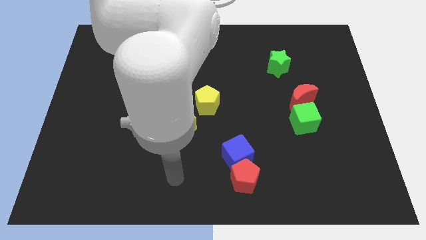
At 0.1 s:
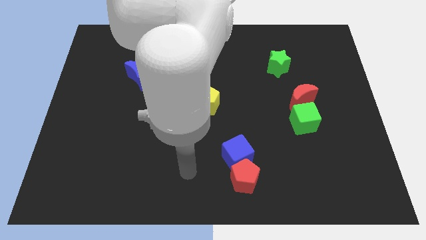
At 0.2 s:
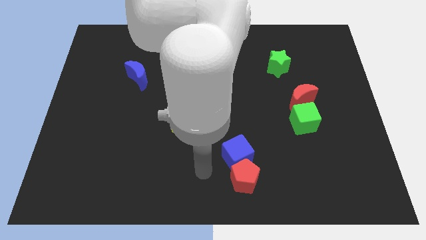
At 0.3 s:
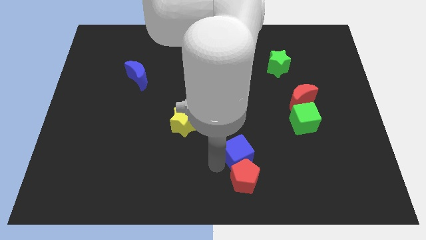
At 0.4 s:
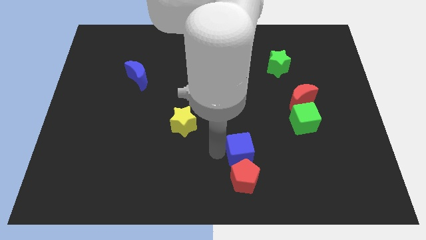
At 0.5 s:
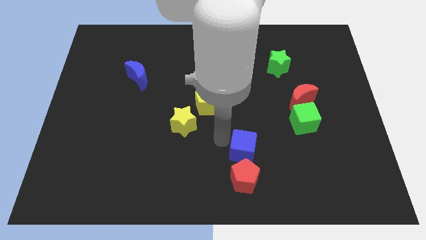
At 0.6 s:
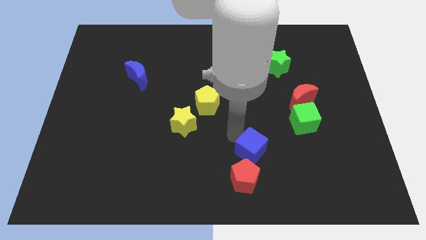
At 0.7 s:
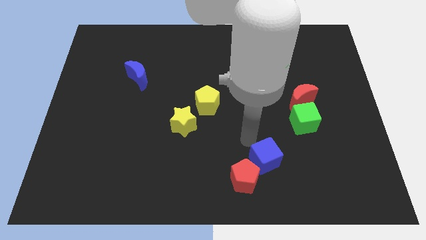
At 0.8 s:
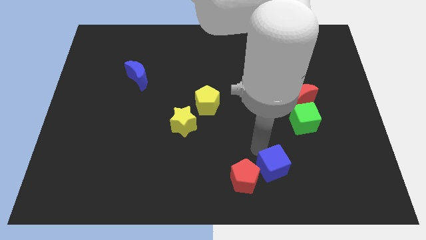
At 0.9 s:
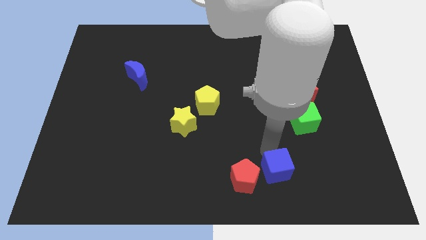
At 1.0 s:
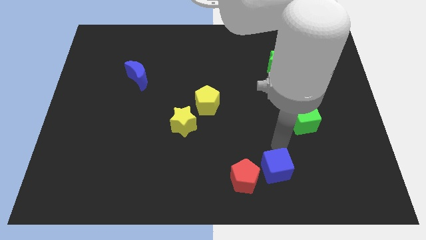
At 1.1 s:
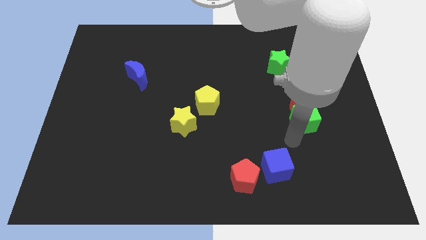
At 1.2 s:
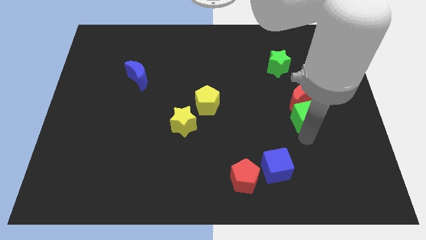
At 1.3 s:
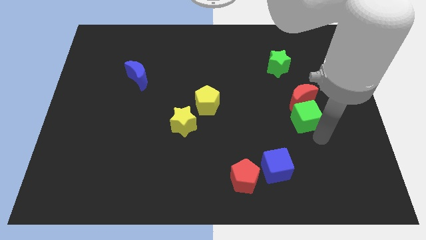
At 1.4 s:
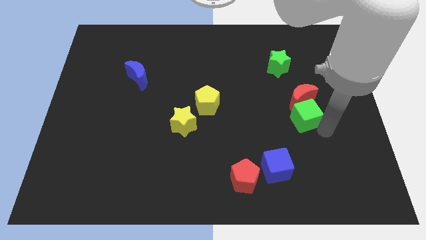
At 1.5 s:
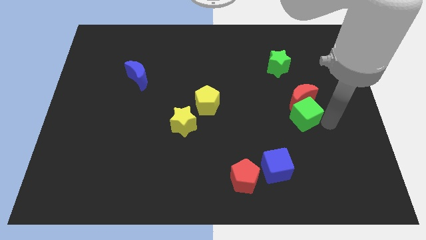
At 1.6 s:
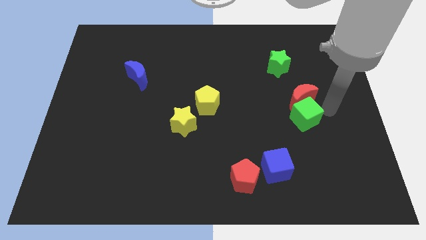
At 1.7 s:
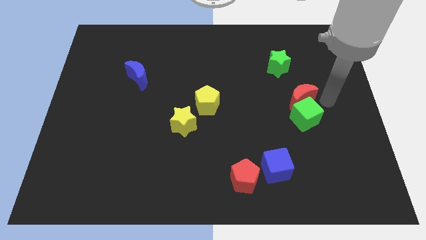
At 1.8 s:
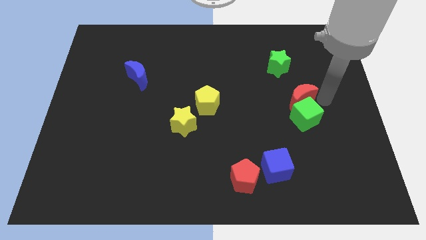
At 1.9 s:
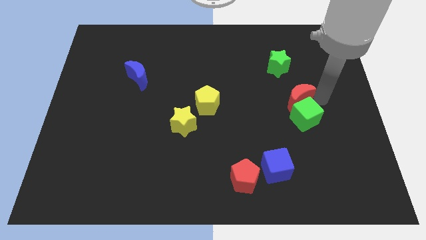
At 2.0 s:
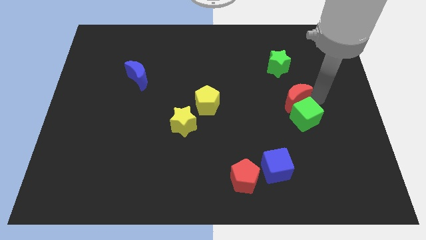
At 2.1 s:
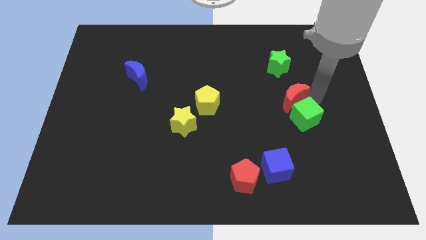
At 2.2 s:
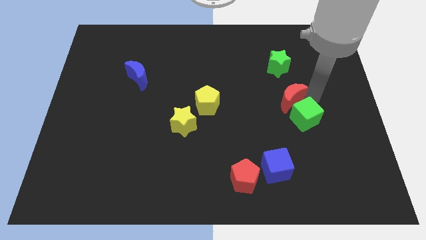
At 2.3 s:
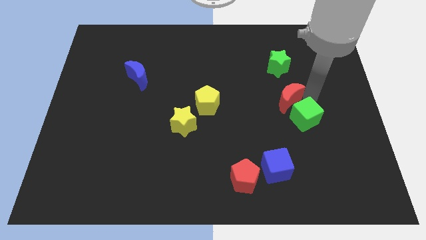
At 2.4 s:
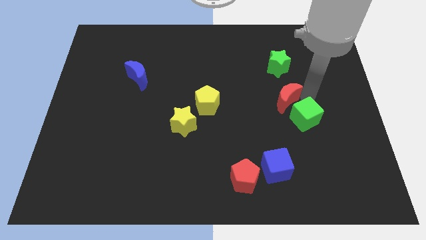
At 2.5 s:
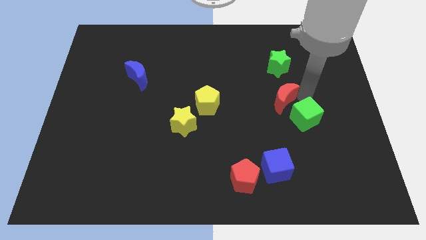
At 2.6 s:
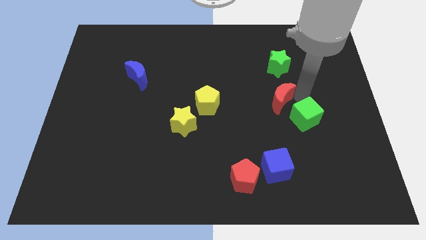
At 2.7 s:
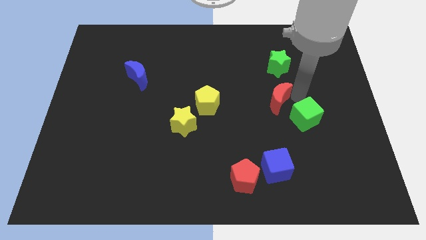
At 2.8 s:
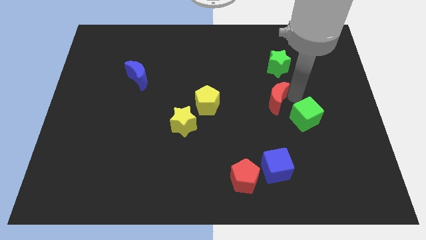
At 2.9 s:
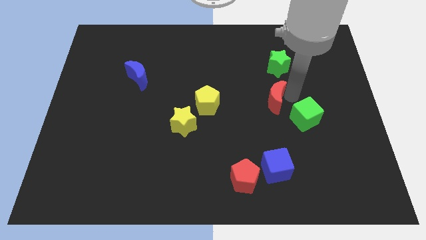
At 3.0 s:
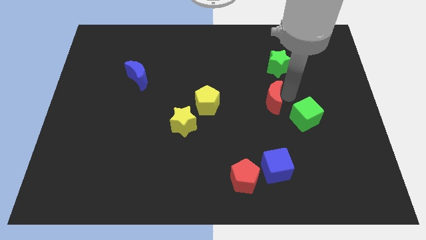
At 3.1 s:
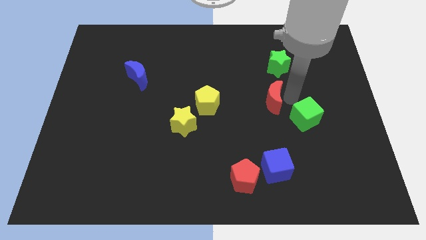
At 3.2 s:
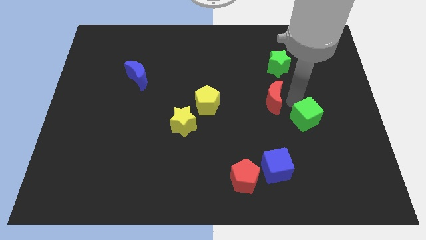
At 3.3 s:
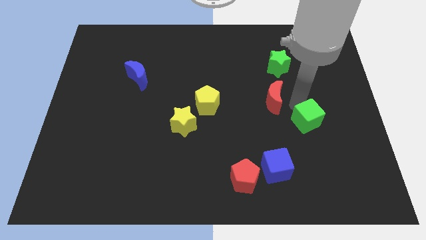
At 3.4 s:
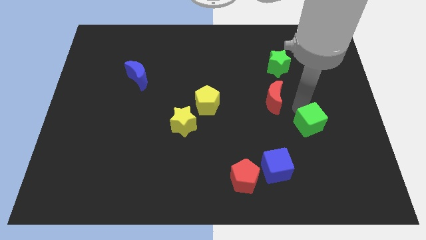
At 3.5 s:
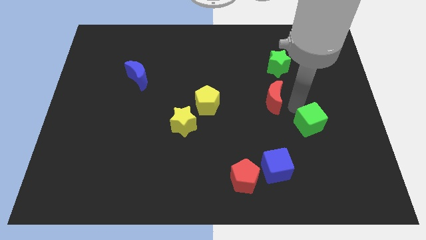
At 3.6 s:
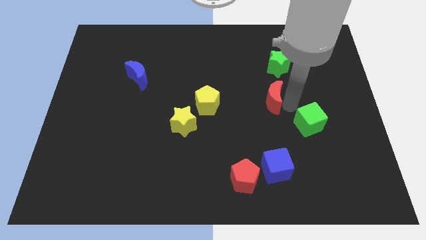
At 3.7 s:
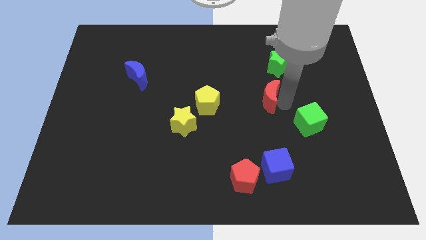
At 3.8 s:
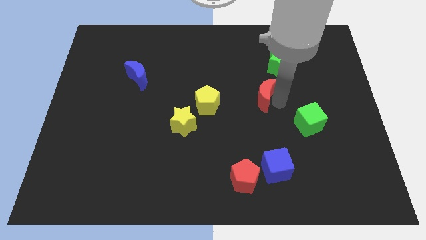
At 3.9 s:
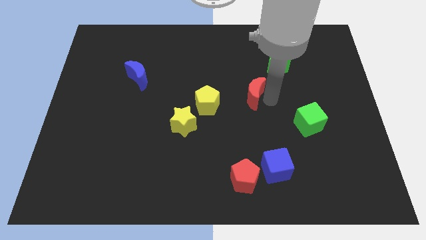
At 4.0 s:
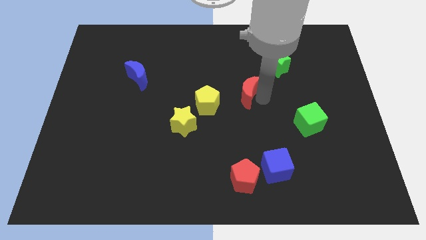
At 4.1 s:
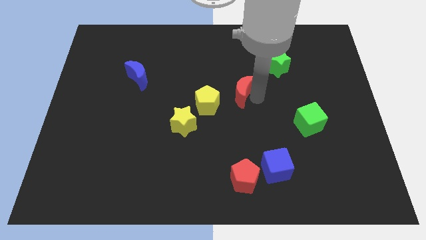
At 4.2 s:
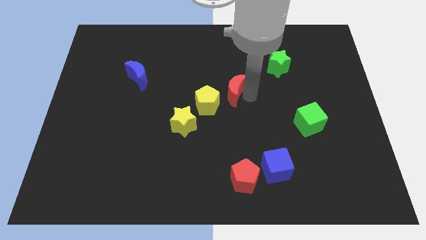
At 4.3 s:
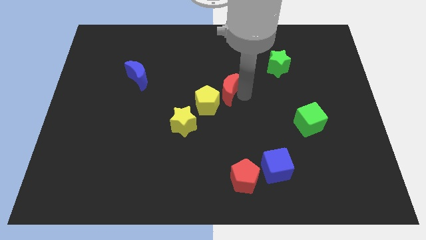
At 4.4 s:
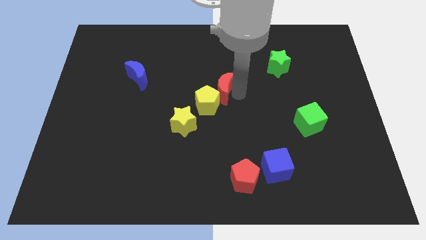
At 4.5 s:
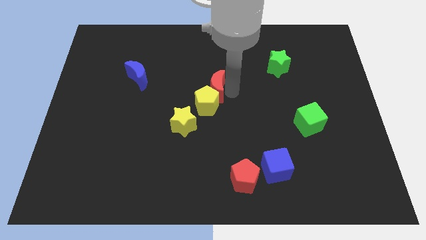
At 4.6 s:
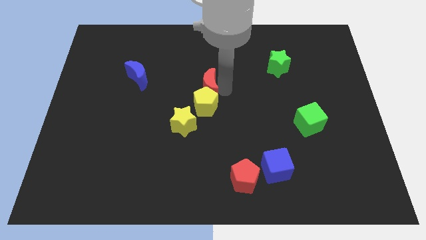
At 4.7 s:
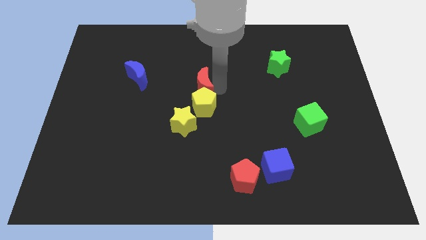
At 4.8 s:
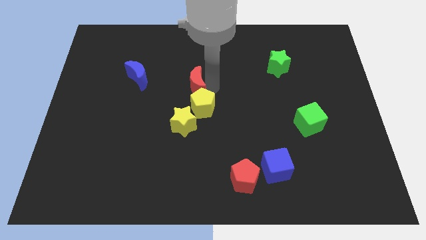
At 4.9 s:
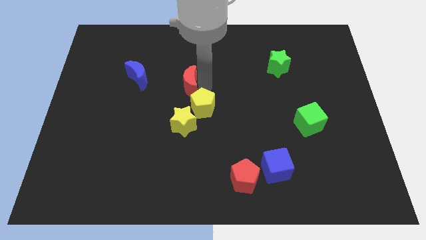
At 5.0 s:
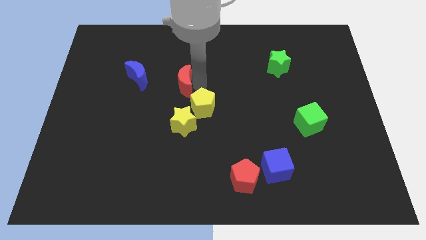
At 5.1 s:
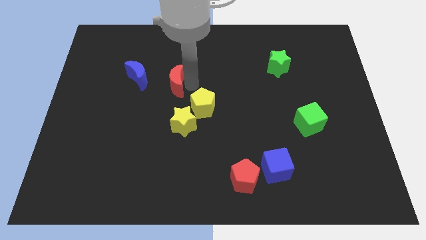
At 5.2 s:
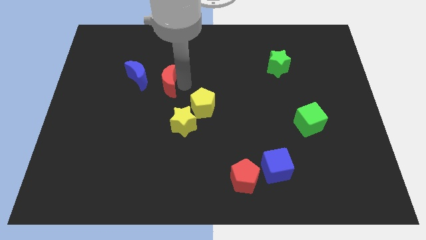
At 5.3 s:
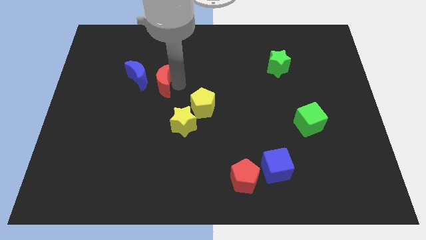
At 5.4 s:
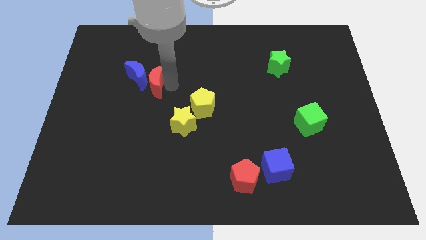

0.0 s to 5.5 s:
move the red moon to the blue moon

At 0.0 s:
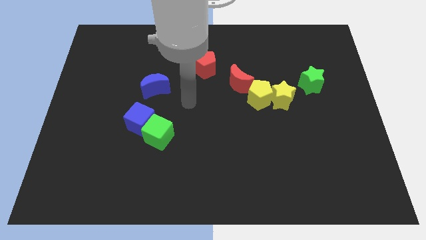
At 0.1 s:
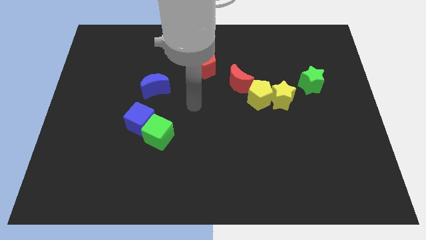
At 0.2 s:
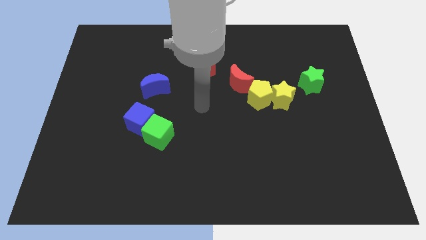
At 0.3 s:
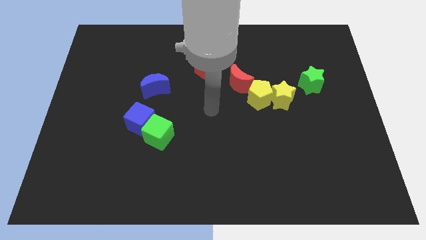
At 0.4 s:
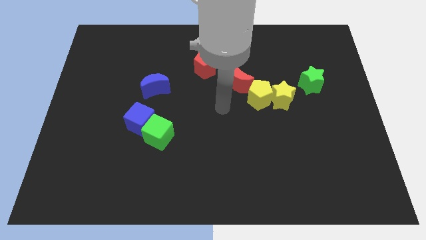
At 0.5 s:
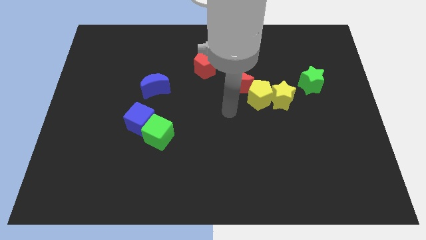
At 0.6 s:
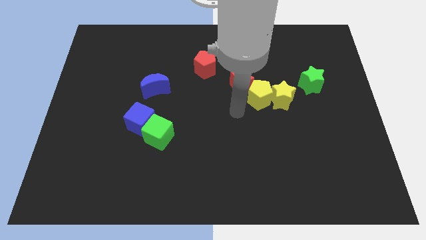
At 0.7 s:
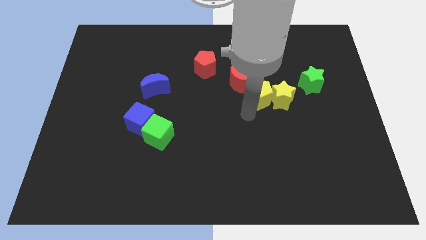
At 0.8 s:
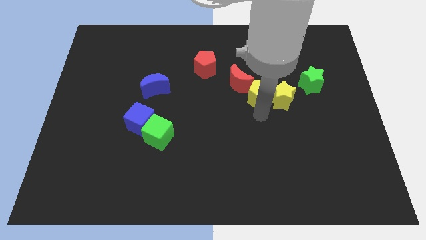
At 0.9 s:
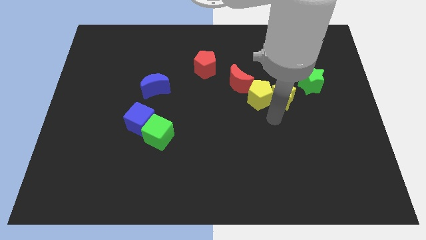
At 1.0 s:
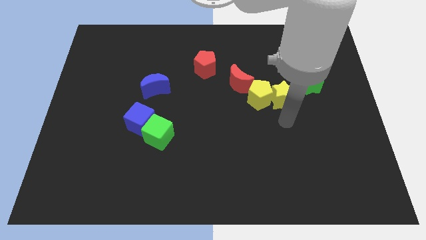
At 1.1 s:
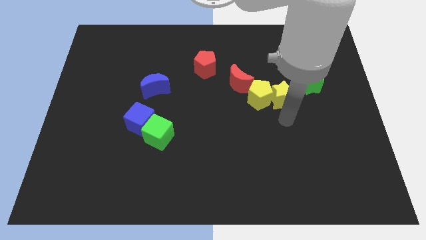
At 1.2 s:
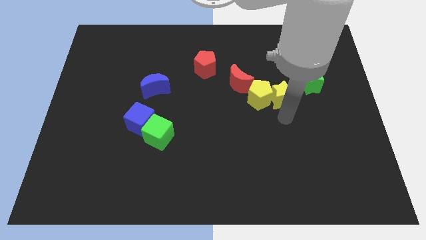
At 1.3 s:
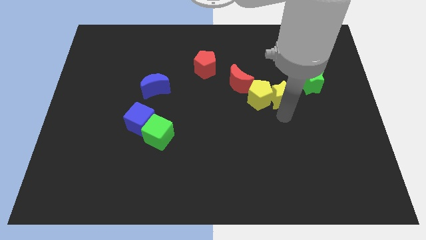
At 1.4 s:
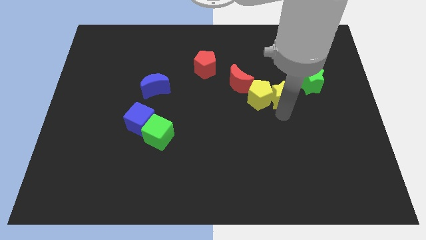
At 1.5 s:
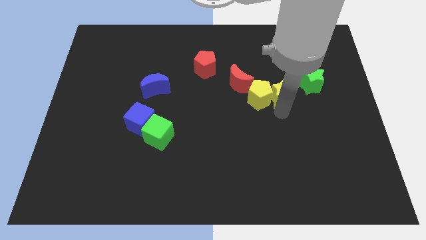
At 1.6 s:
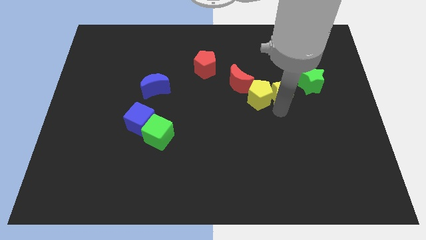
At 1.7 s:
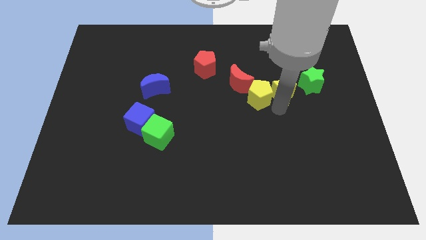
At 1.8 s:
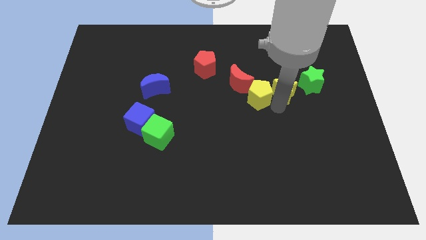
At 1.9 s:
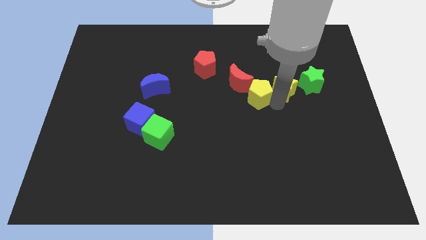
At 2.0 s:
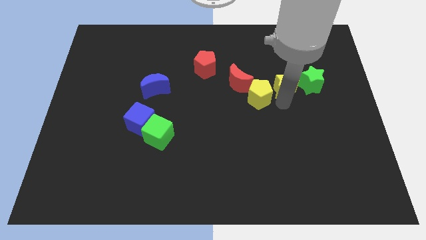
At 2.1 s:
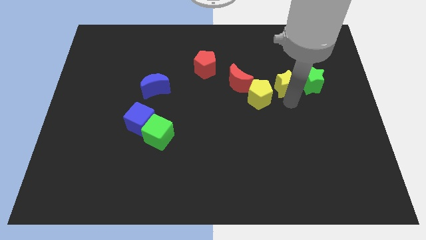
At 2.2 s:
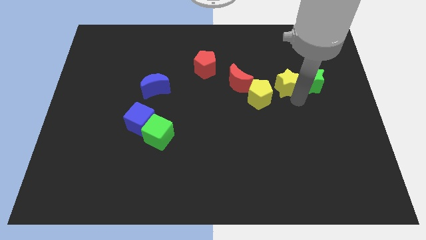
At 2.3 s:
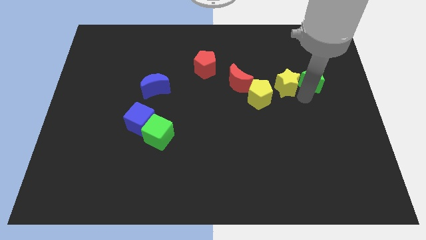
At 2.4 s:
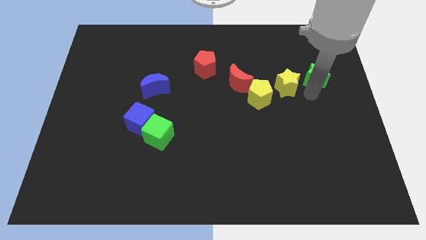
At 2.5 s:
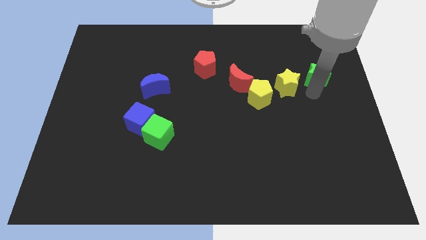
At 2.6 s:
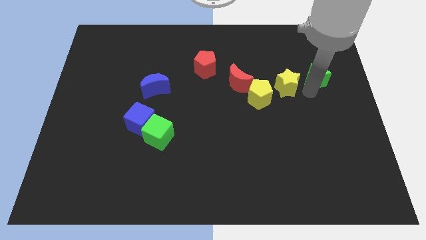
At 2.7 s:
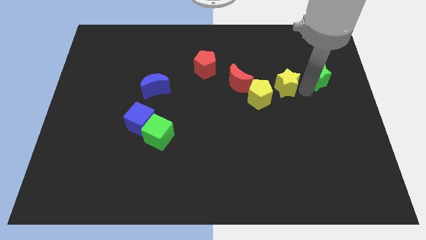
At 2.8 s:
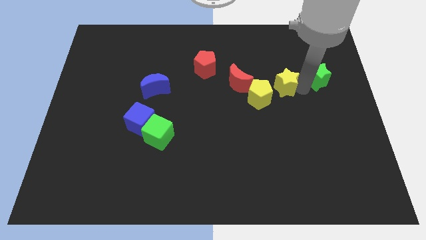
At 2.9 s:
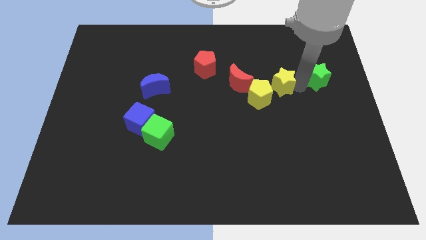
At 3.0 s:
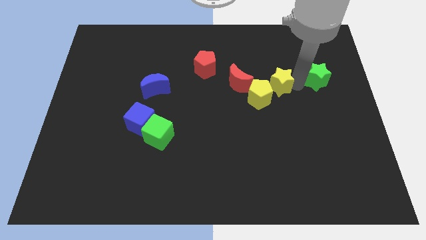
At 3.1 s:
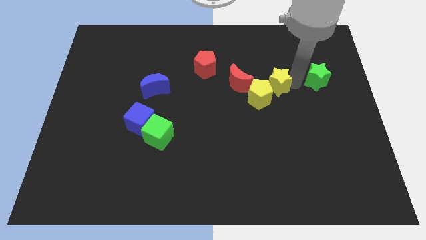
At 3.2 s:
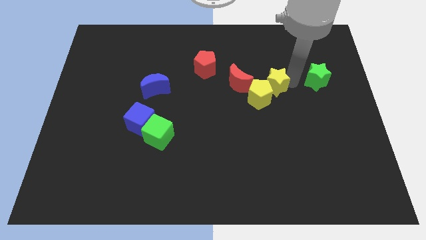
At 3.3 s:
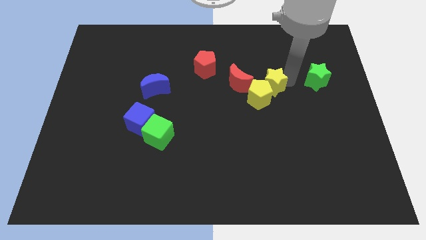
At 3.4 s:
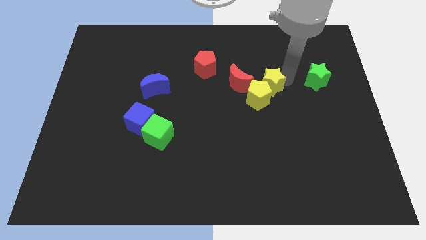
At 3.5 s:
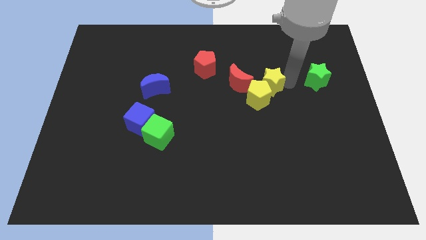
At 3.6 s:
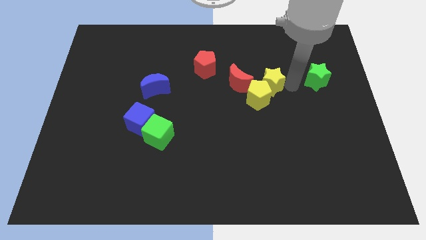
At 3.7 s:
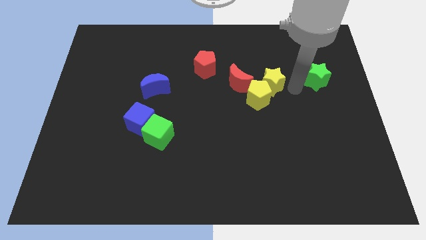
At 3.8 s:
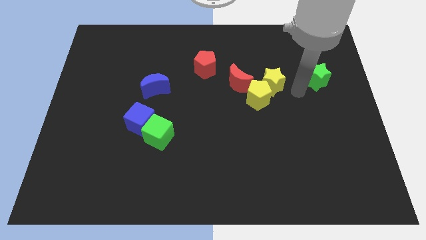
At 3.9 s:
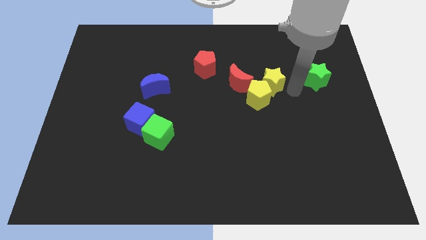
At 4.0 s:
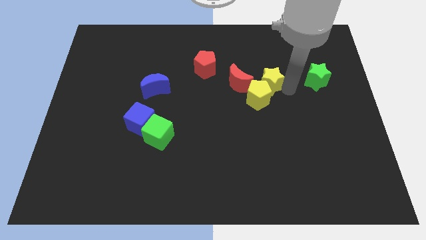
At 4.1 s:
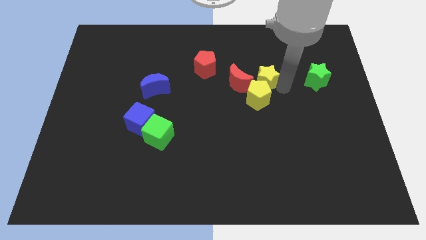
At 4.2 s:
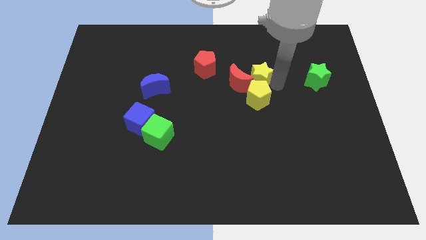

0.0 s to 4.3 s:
move the yellow star close to the red moon
